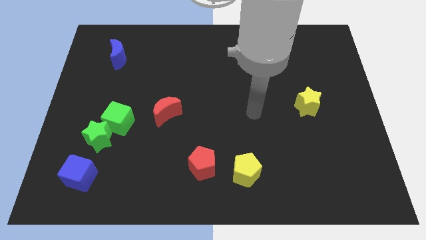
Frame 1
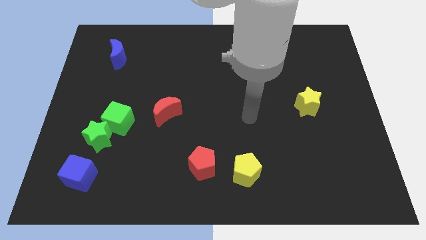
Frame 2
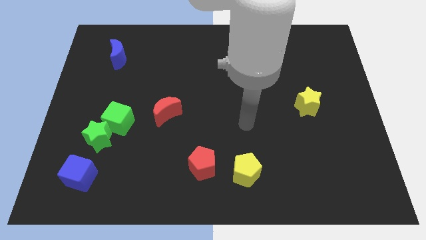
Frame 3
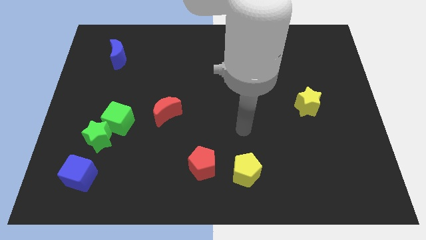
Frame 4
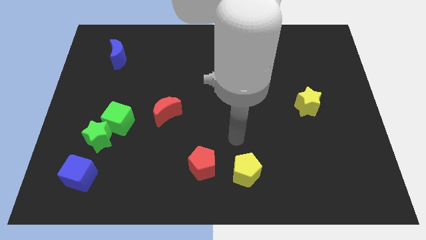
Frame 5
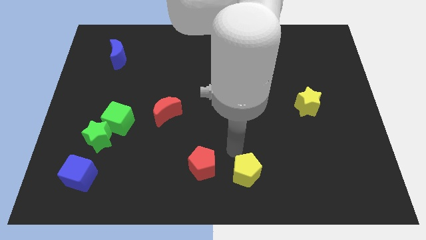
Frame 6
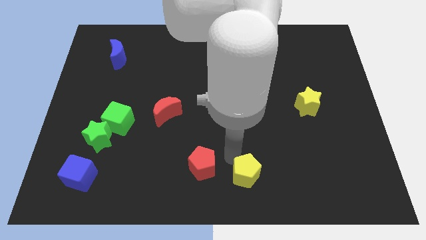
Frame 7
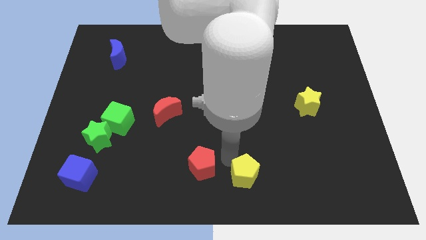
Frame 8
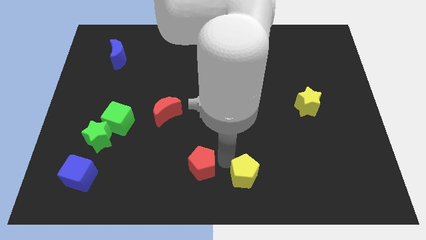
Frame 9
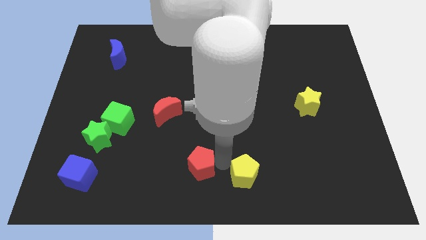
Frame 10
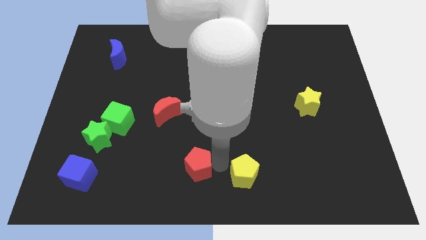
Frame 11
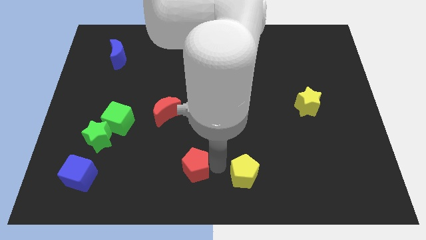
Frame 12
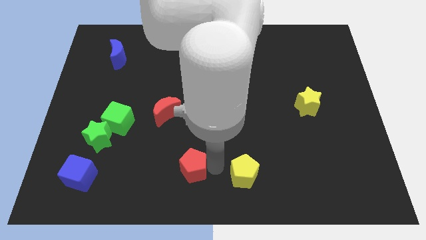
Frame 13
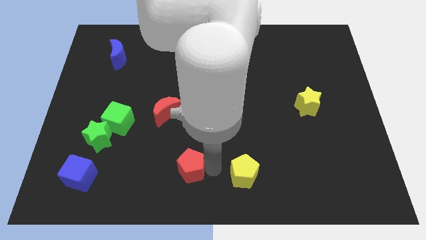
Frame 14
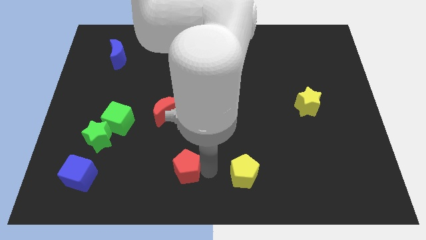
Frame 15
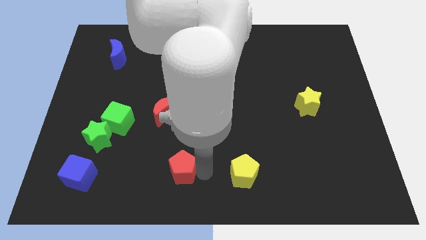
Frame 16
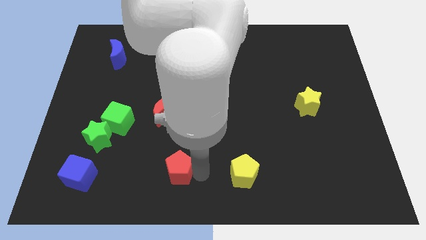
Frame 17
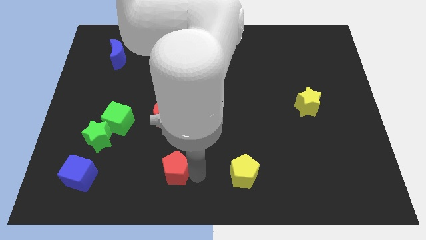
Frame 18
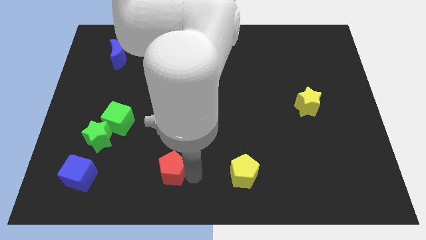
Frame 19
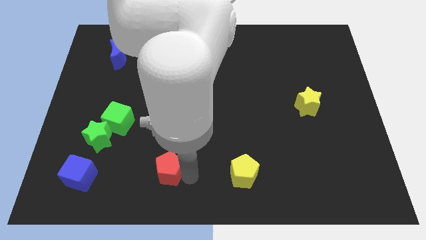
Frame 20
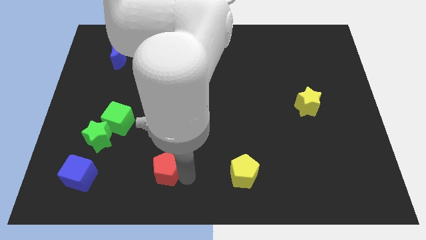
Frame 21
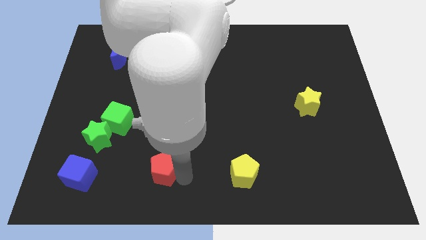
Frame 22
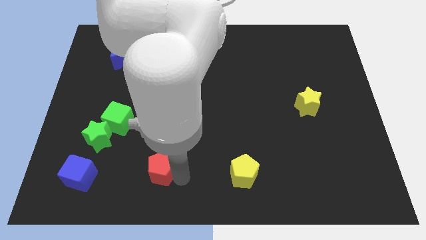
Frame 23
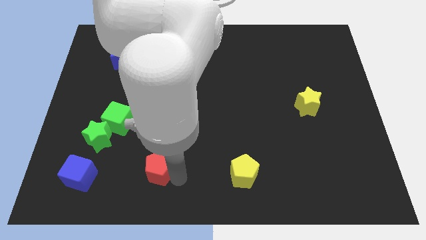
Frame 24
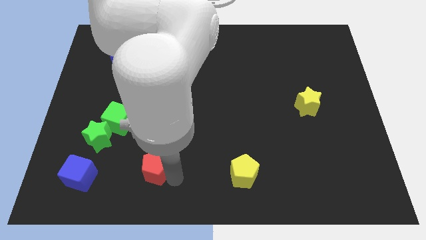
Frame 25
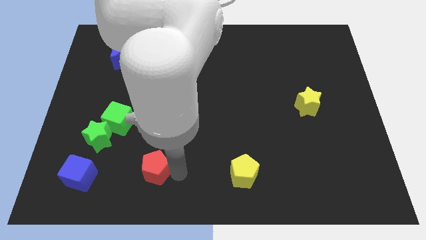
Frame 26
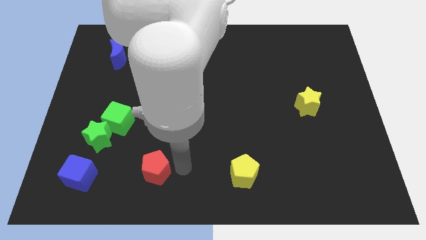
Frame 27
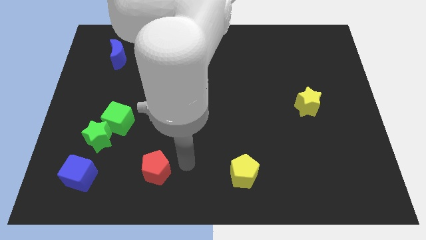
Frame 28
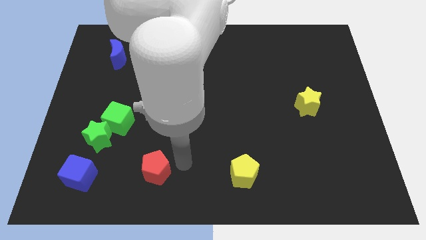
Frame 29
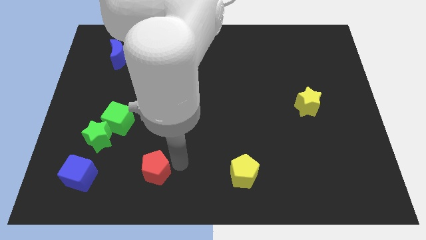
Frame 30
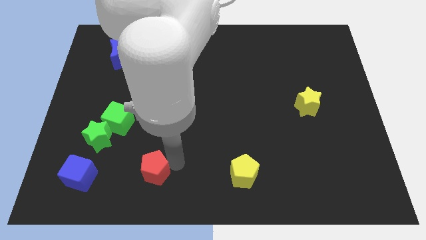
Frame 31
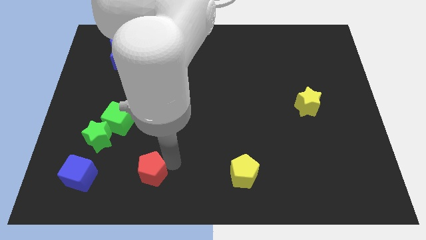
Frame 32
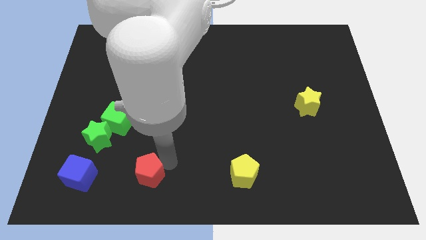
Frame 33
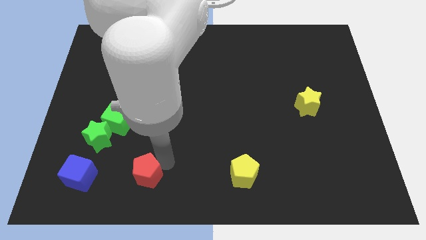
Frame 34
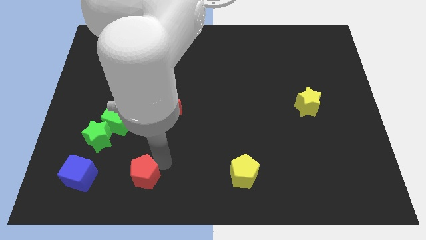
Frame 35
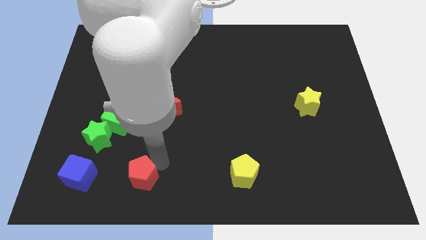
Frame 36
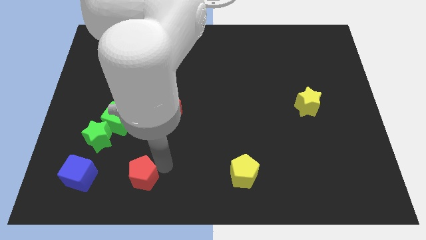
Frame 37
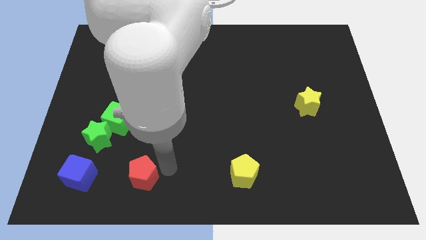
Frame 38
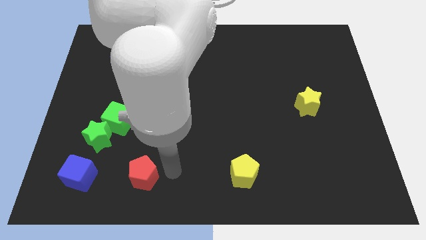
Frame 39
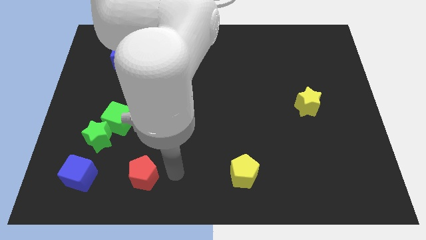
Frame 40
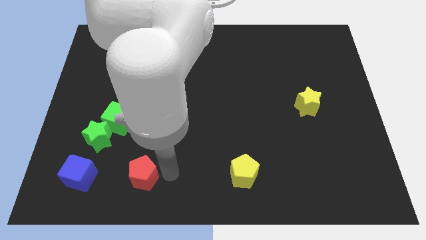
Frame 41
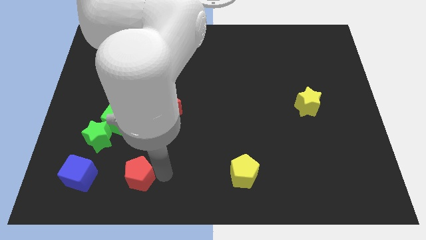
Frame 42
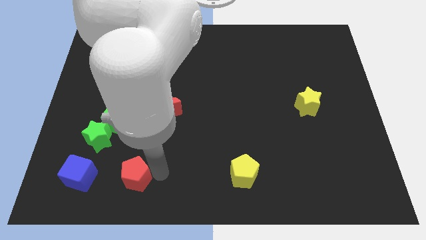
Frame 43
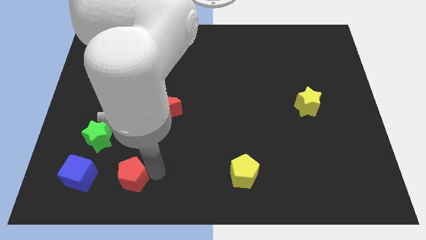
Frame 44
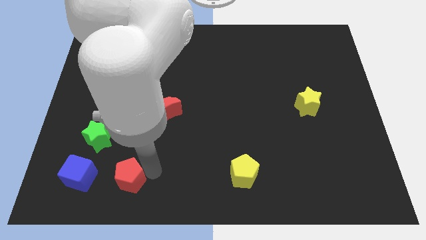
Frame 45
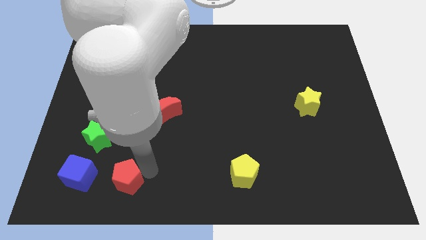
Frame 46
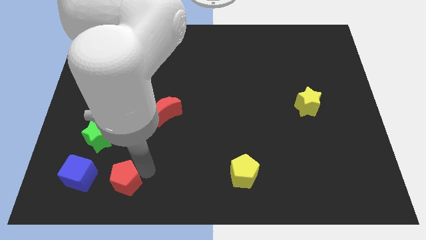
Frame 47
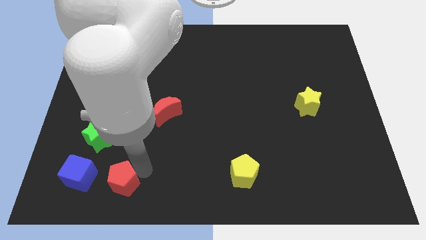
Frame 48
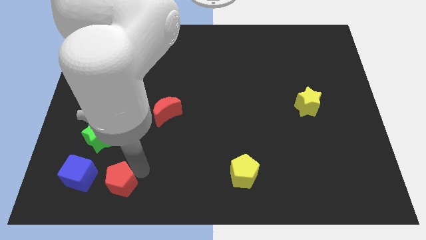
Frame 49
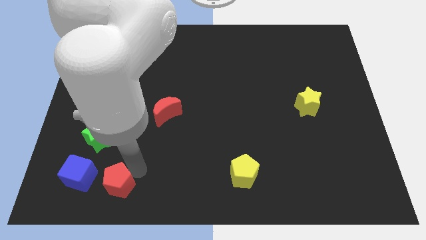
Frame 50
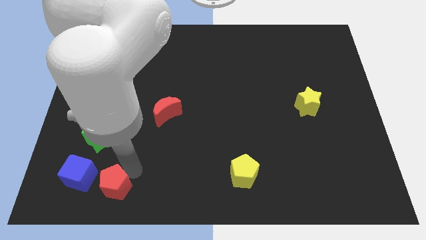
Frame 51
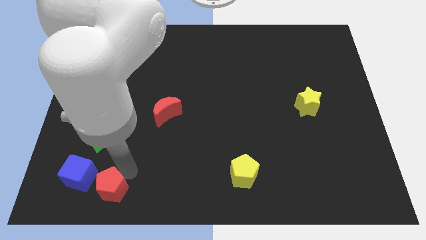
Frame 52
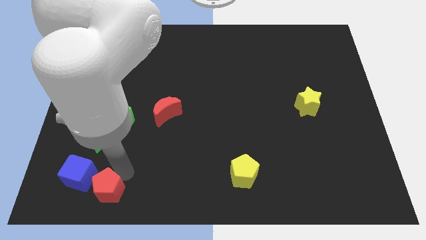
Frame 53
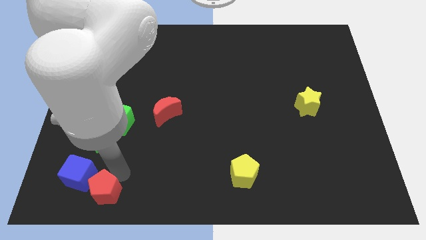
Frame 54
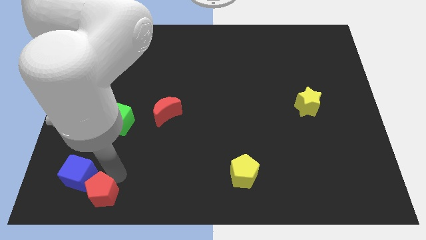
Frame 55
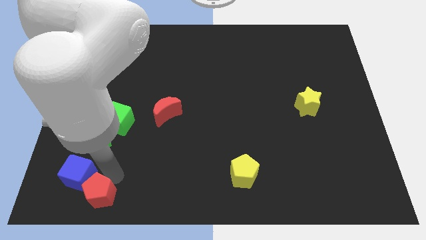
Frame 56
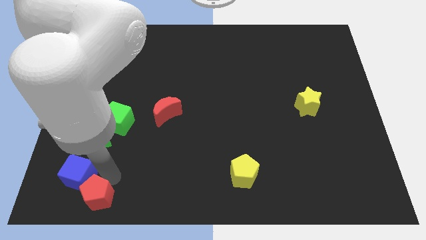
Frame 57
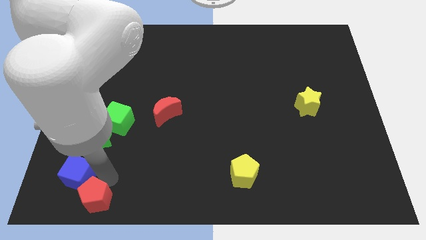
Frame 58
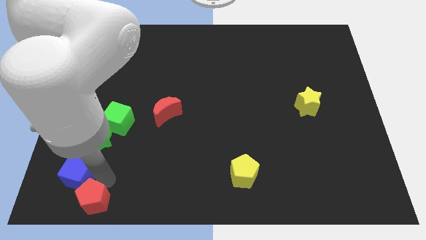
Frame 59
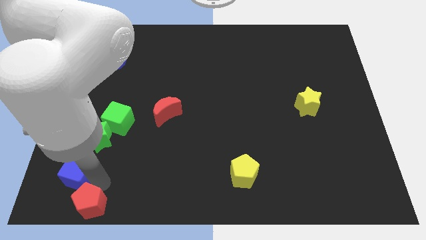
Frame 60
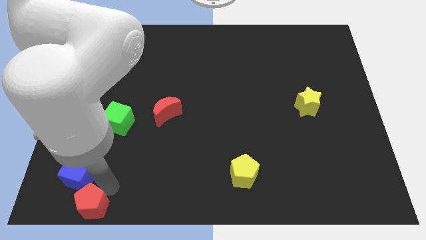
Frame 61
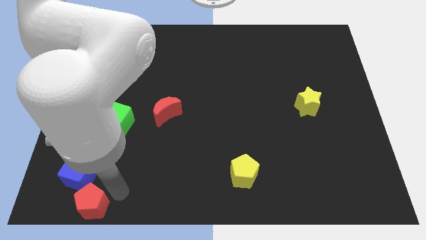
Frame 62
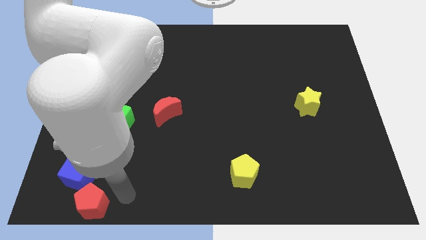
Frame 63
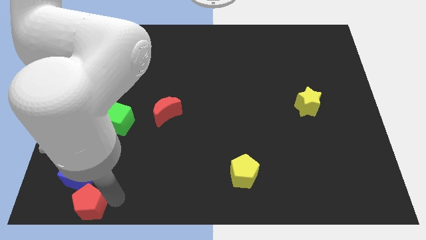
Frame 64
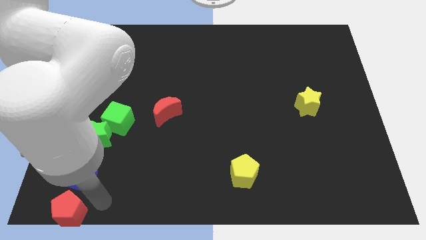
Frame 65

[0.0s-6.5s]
push the red pentagon to the bottom left
